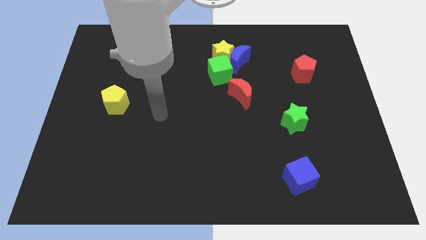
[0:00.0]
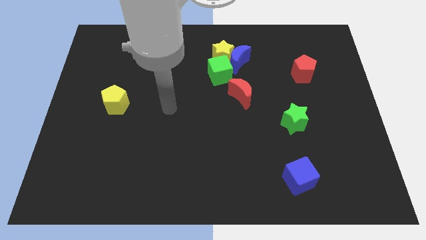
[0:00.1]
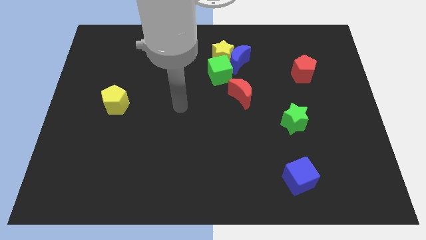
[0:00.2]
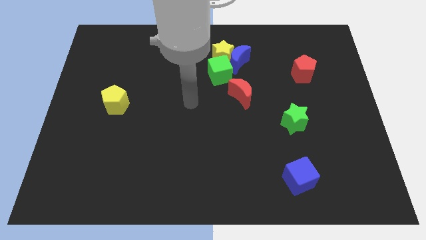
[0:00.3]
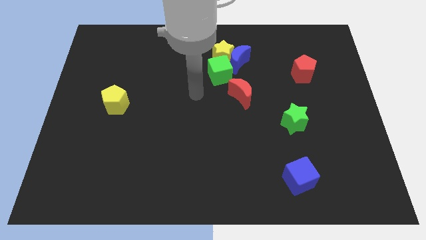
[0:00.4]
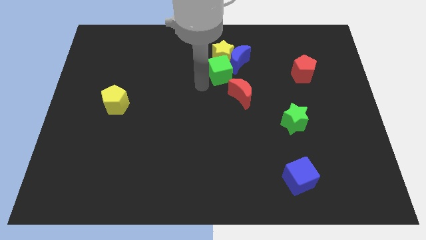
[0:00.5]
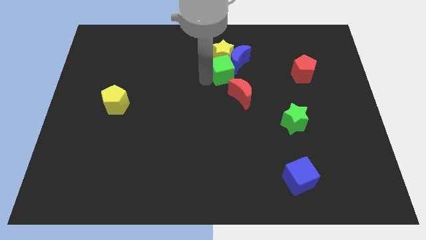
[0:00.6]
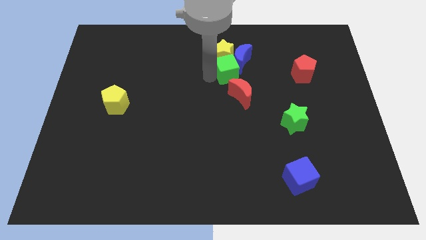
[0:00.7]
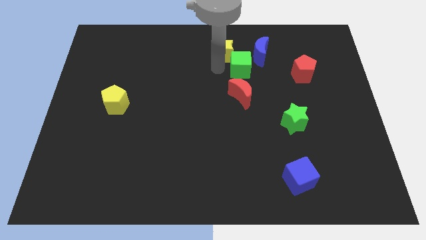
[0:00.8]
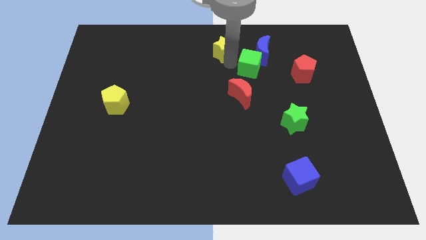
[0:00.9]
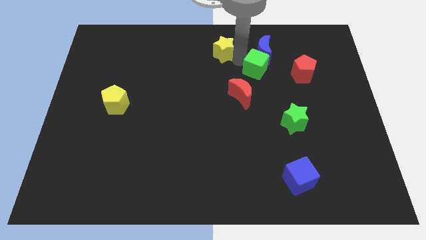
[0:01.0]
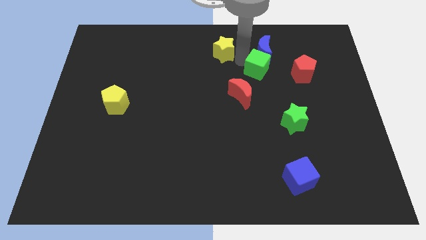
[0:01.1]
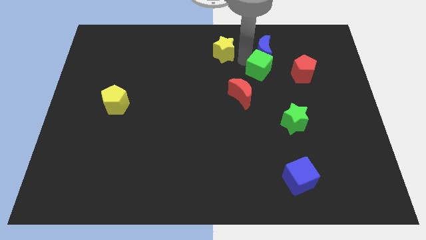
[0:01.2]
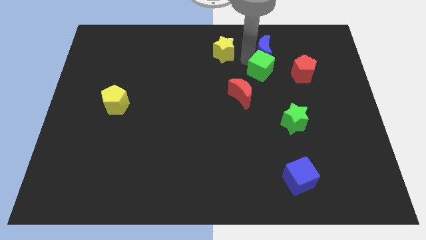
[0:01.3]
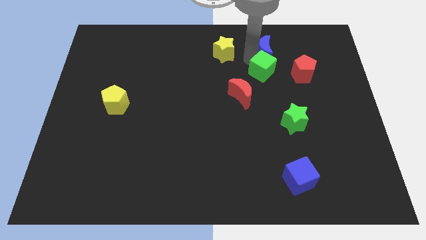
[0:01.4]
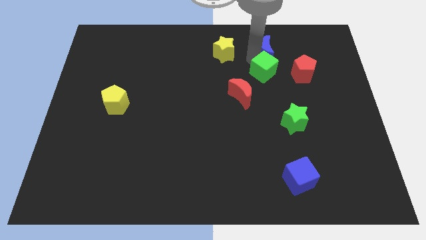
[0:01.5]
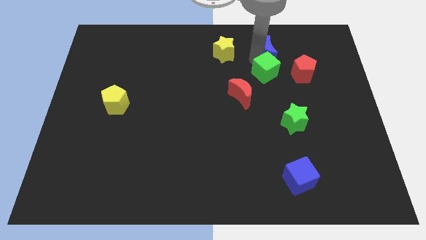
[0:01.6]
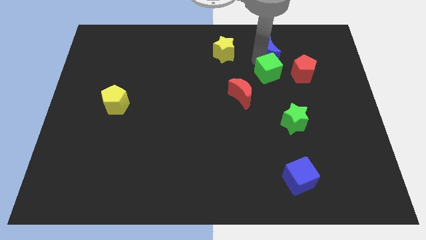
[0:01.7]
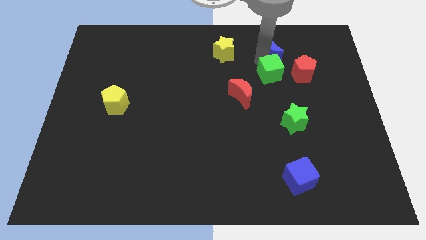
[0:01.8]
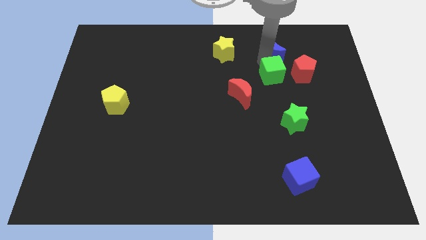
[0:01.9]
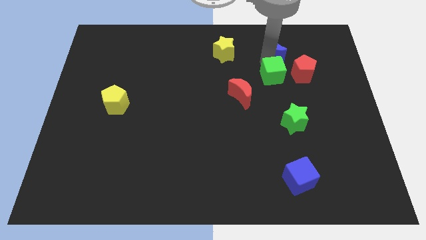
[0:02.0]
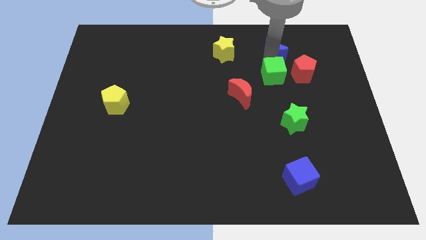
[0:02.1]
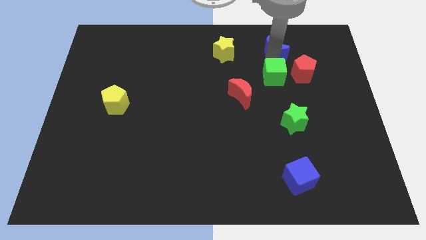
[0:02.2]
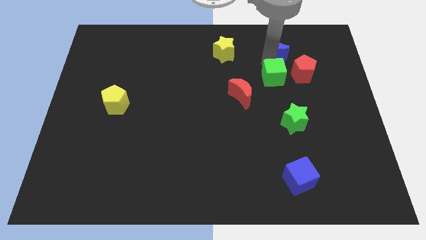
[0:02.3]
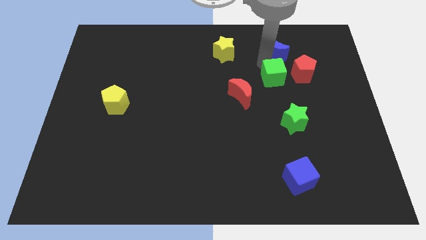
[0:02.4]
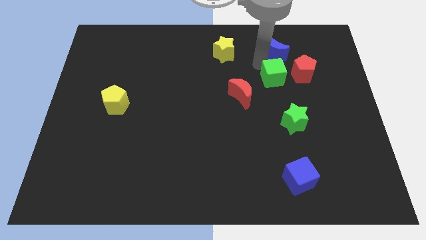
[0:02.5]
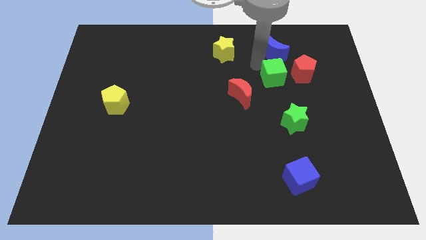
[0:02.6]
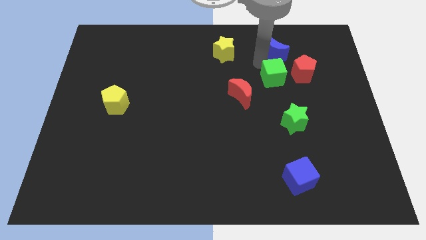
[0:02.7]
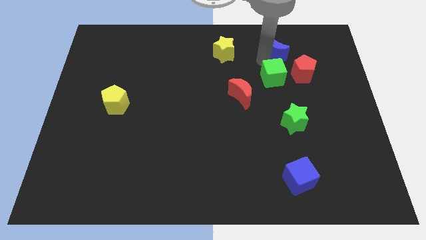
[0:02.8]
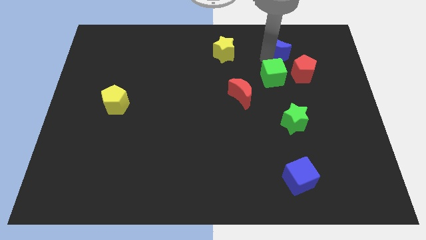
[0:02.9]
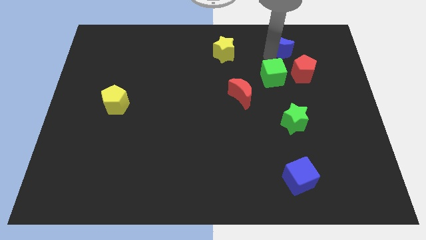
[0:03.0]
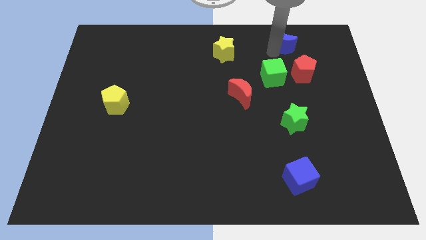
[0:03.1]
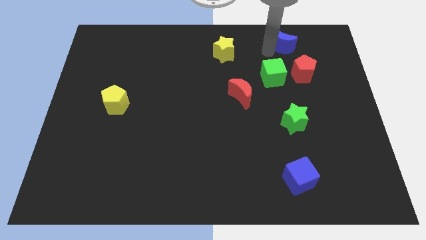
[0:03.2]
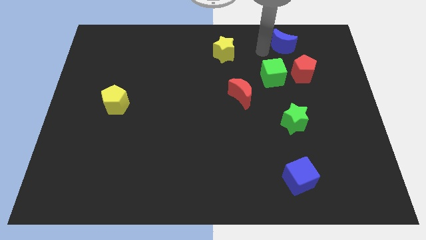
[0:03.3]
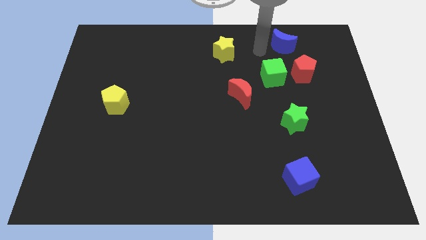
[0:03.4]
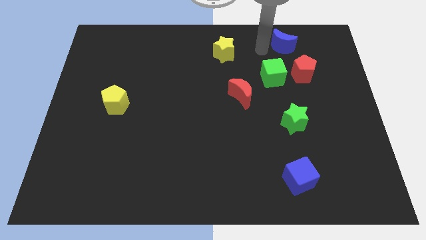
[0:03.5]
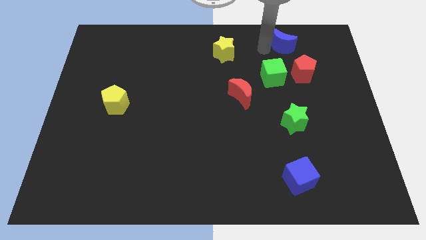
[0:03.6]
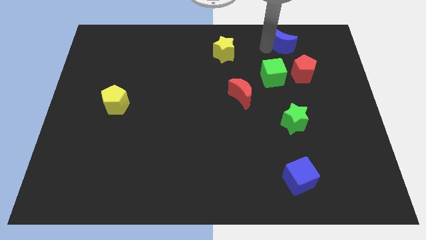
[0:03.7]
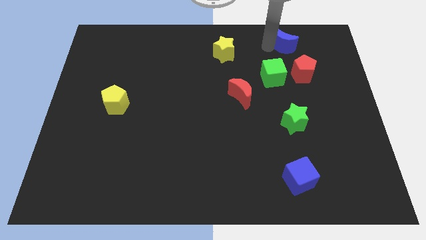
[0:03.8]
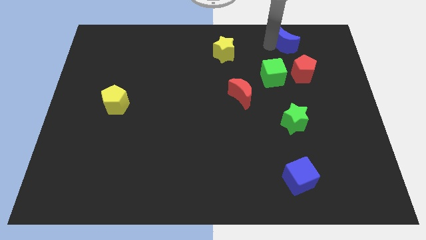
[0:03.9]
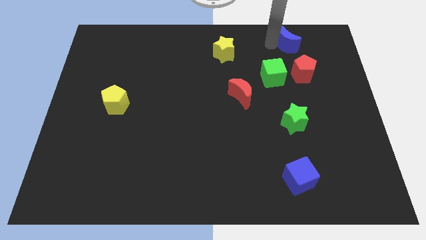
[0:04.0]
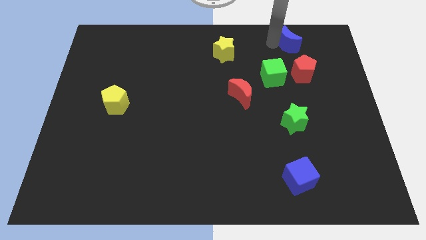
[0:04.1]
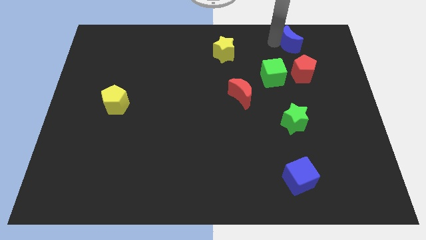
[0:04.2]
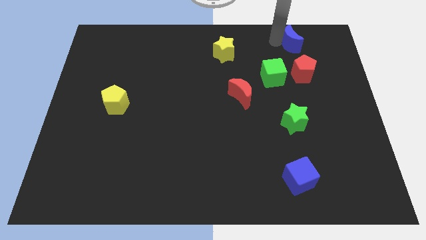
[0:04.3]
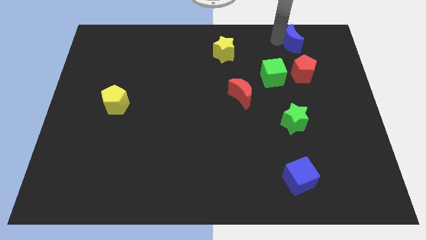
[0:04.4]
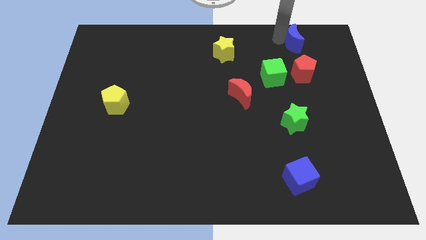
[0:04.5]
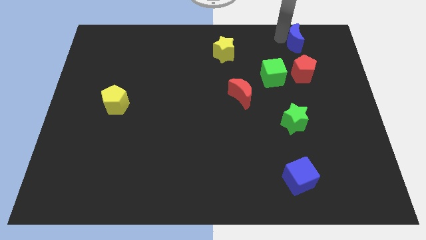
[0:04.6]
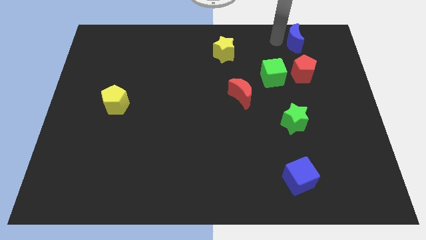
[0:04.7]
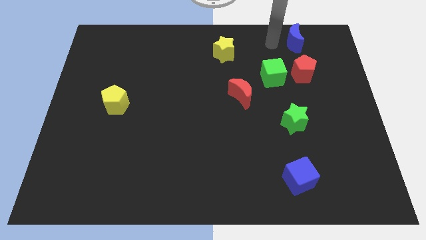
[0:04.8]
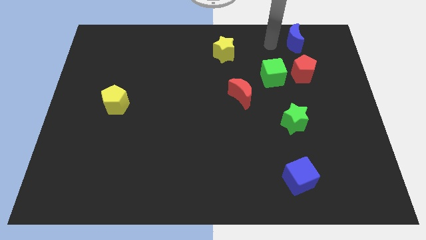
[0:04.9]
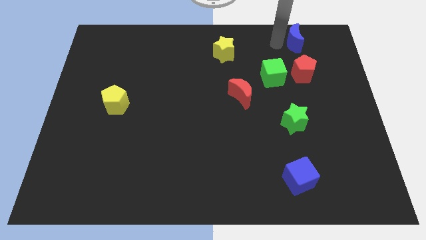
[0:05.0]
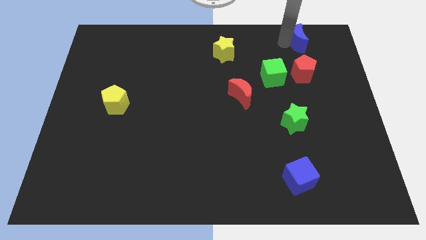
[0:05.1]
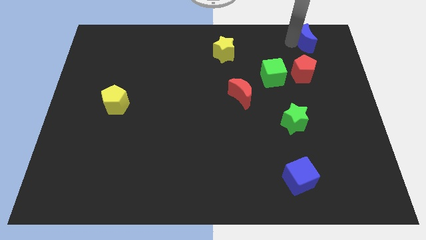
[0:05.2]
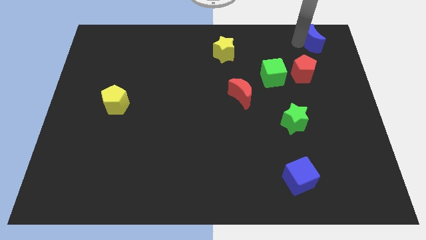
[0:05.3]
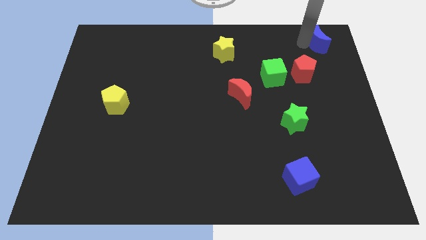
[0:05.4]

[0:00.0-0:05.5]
slide the blue moon to the upper right corner

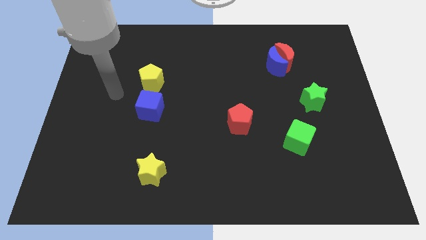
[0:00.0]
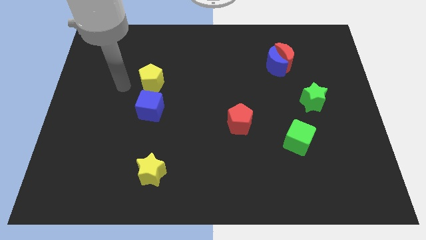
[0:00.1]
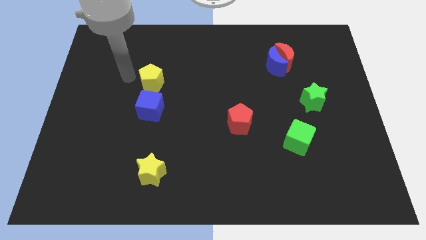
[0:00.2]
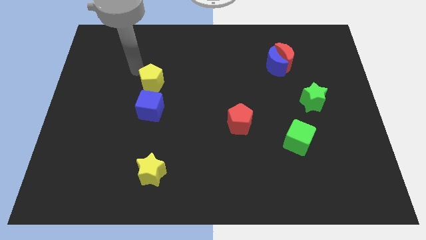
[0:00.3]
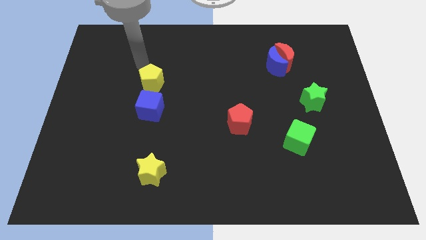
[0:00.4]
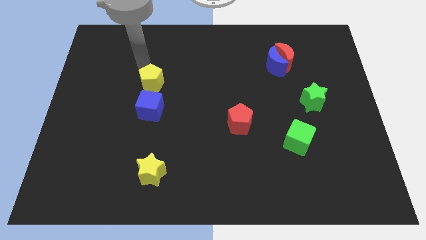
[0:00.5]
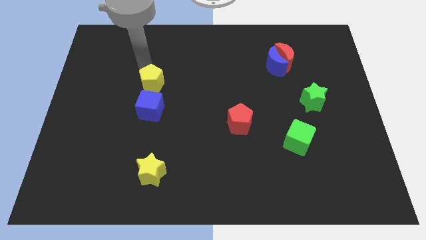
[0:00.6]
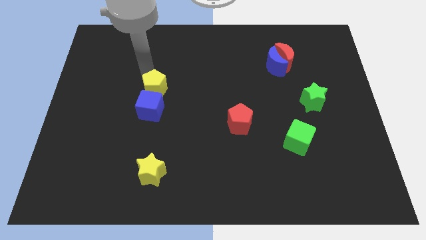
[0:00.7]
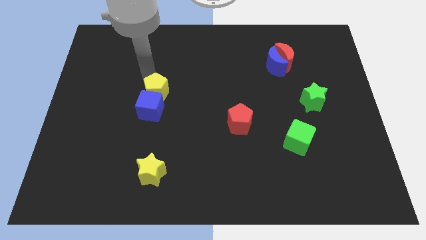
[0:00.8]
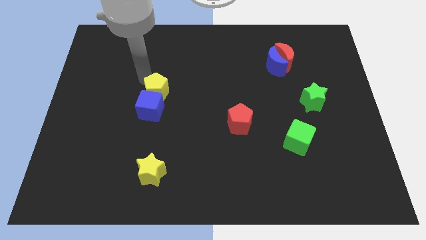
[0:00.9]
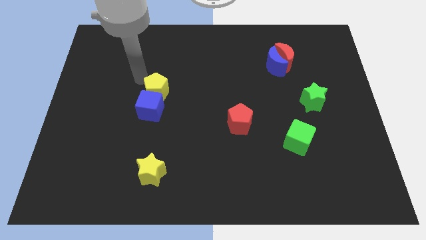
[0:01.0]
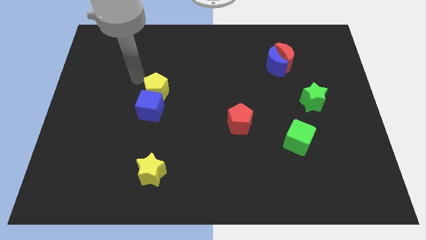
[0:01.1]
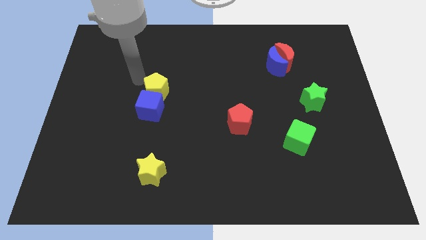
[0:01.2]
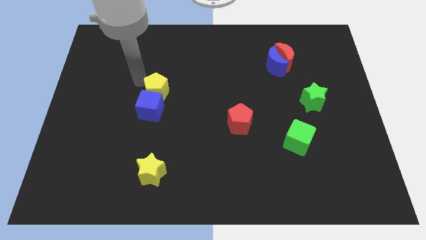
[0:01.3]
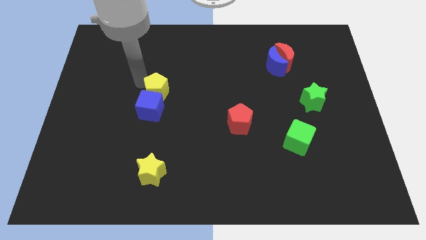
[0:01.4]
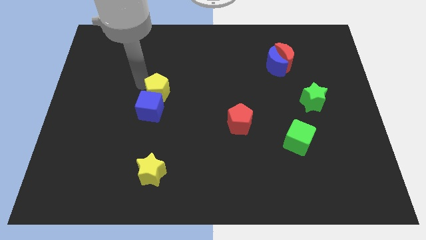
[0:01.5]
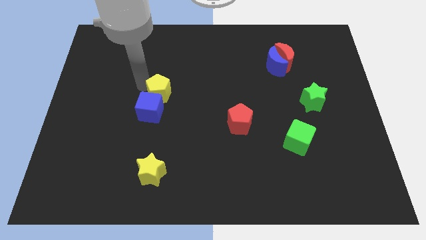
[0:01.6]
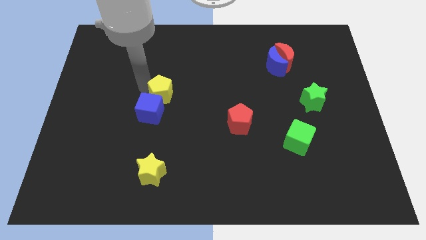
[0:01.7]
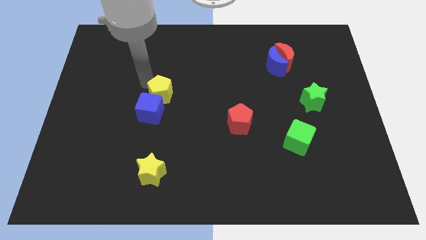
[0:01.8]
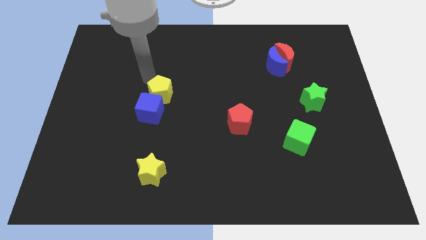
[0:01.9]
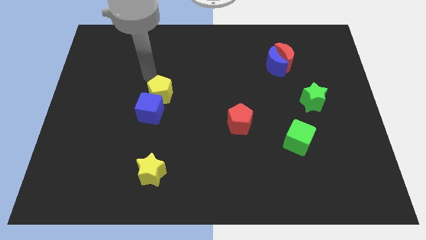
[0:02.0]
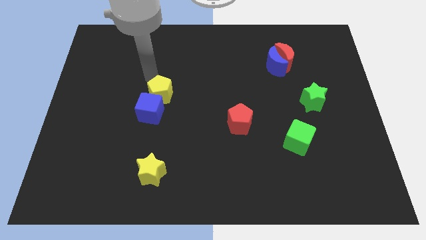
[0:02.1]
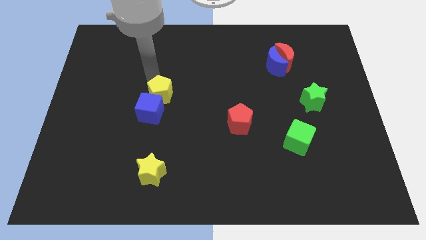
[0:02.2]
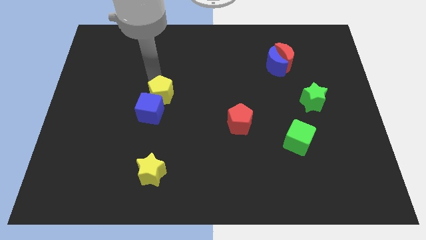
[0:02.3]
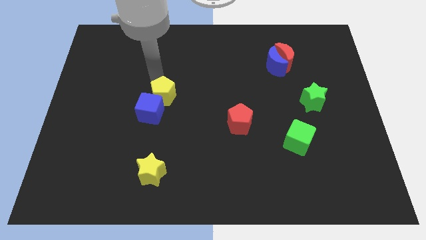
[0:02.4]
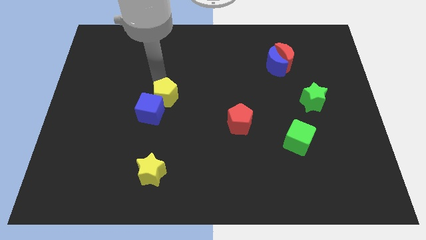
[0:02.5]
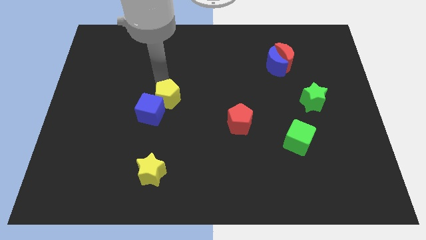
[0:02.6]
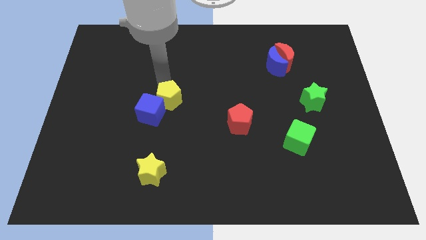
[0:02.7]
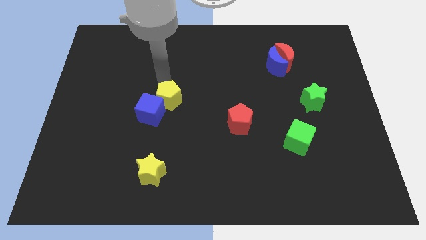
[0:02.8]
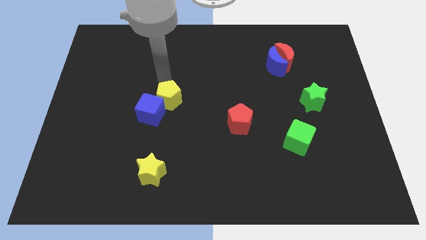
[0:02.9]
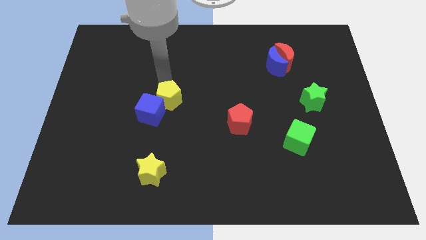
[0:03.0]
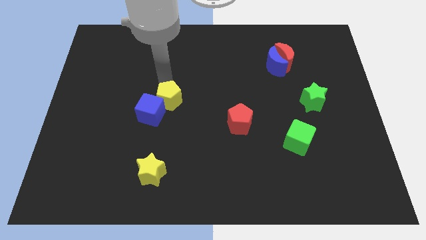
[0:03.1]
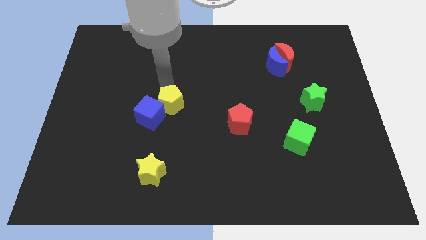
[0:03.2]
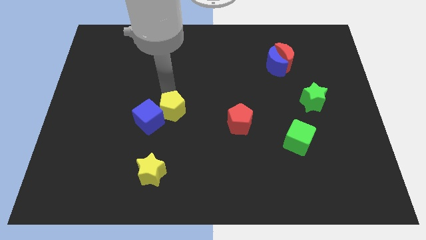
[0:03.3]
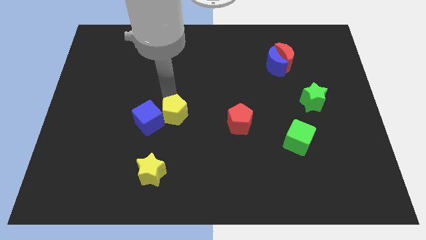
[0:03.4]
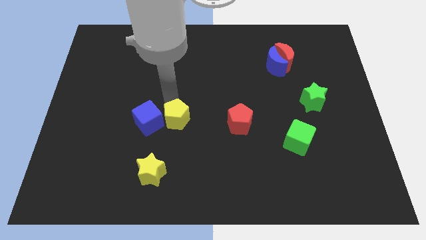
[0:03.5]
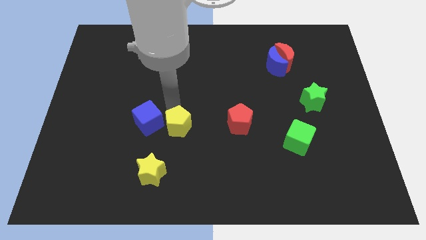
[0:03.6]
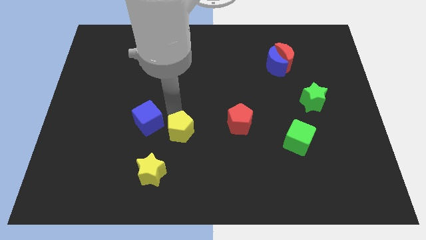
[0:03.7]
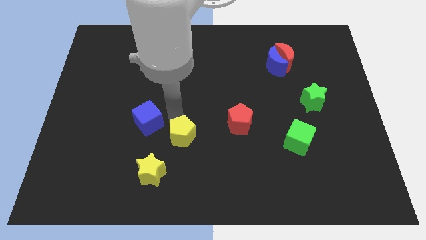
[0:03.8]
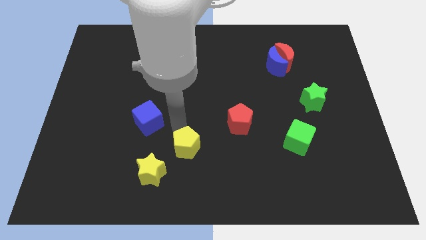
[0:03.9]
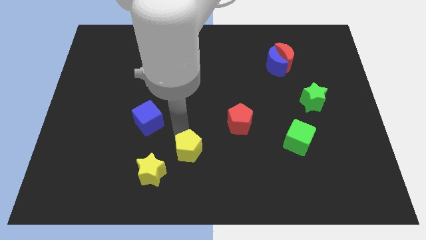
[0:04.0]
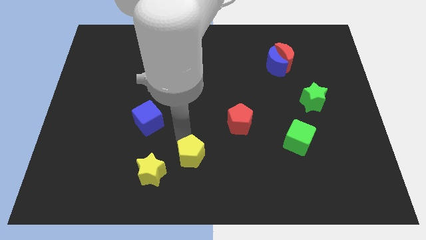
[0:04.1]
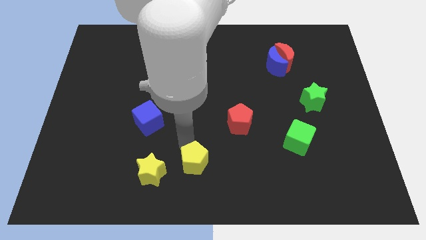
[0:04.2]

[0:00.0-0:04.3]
slide the yellow pentagon to the bottom side
